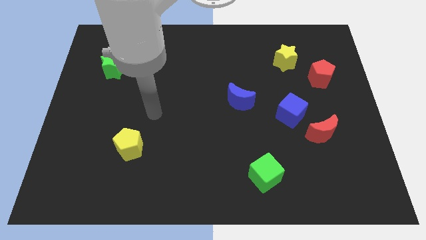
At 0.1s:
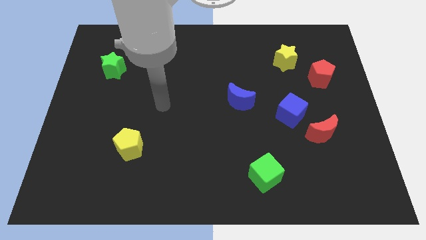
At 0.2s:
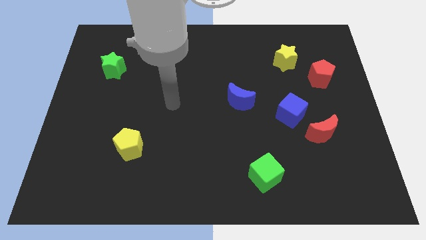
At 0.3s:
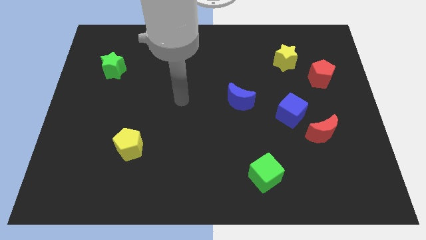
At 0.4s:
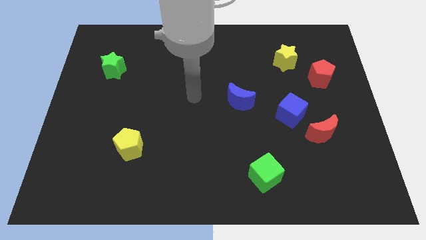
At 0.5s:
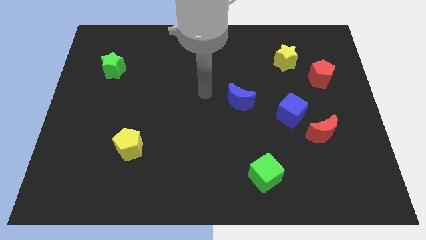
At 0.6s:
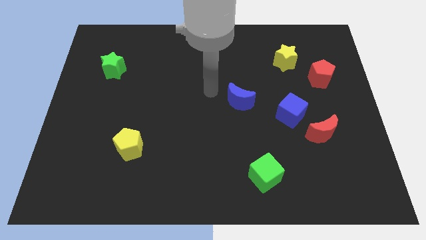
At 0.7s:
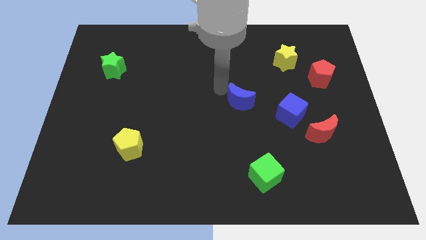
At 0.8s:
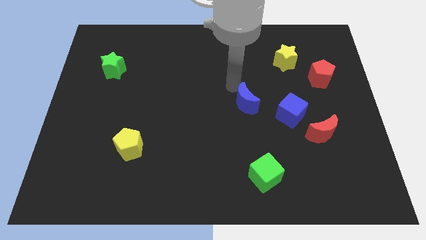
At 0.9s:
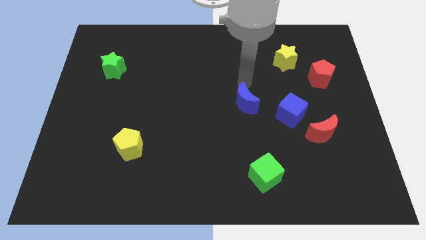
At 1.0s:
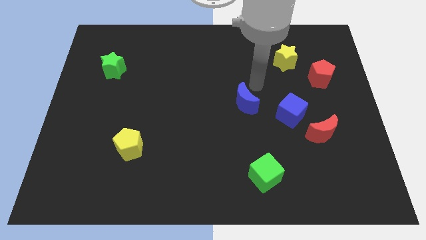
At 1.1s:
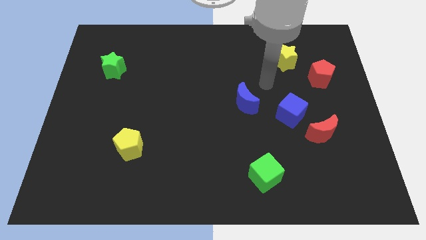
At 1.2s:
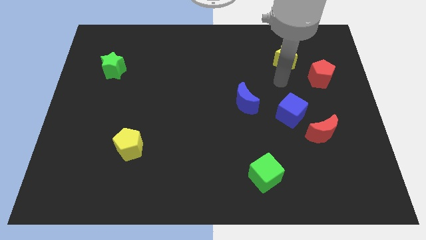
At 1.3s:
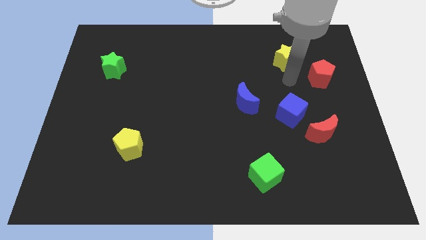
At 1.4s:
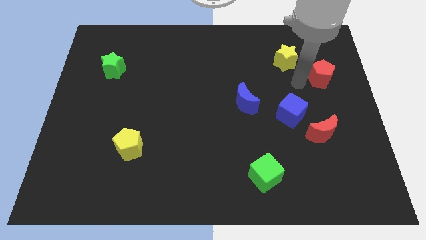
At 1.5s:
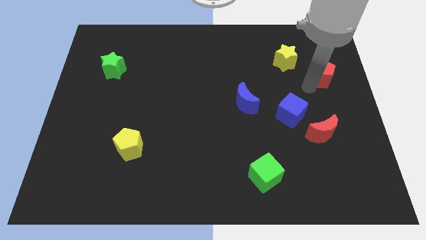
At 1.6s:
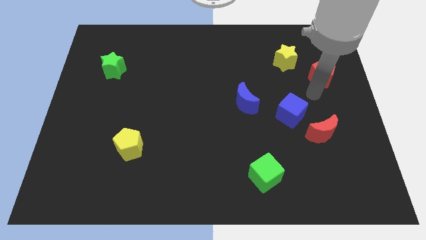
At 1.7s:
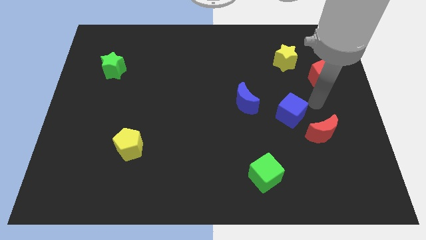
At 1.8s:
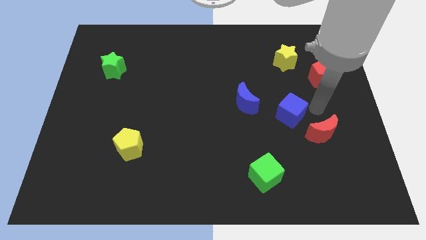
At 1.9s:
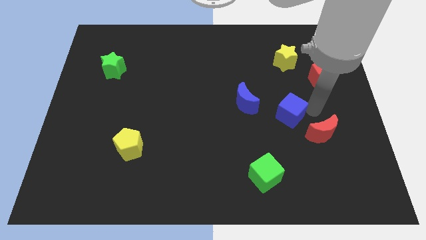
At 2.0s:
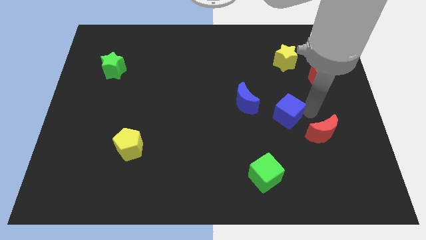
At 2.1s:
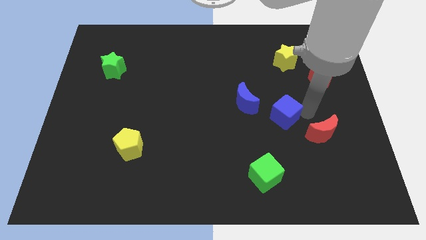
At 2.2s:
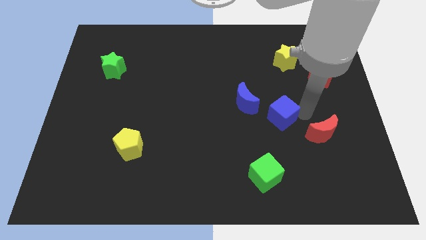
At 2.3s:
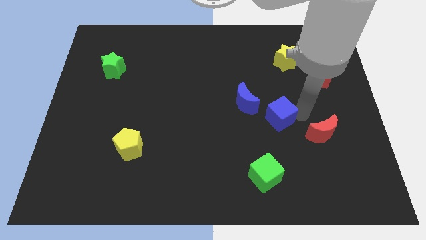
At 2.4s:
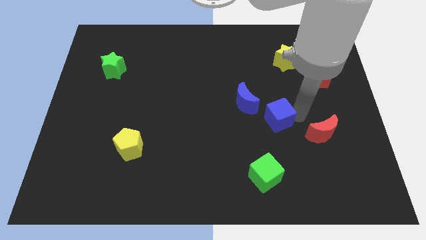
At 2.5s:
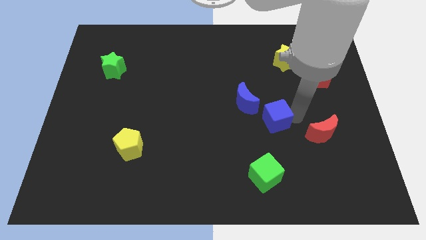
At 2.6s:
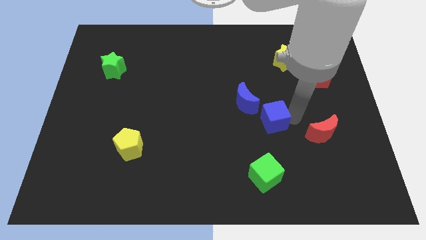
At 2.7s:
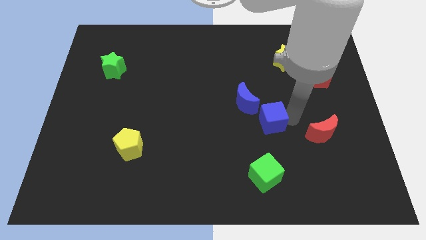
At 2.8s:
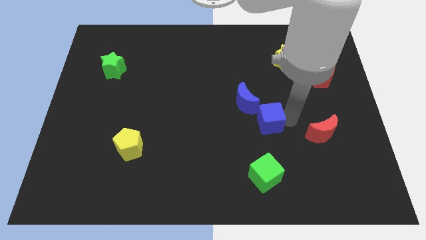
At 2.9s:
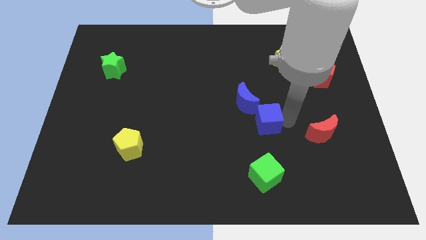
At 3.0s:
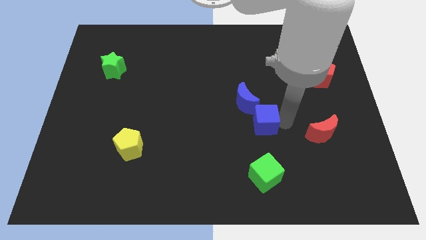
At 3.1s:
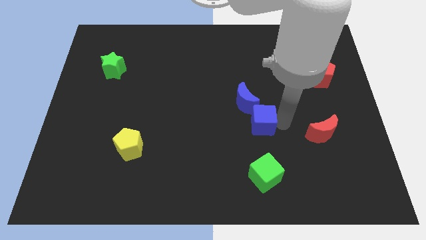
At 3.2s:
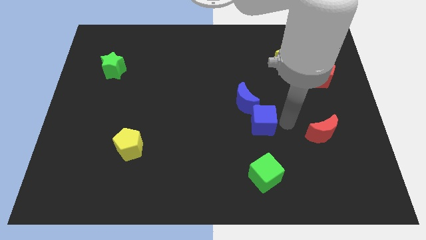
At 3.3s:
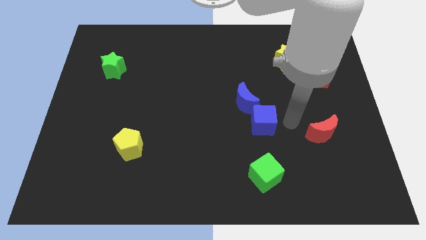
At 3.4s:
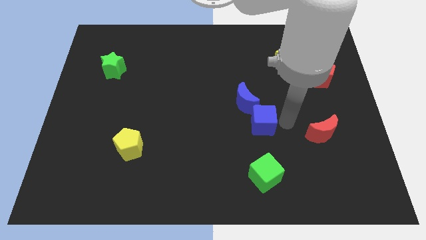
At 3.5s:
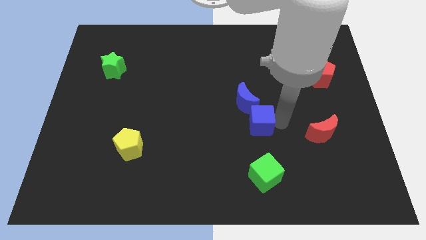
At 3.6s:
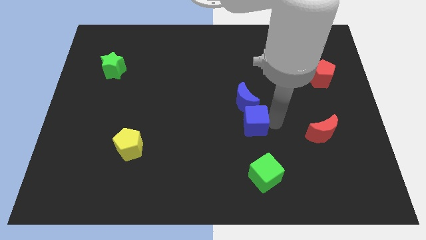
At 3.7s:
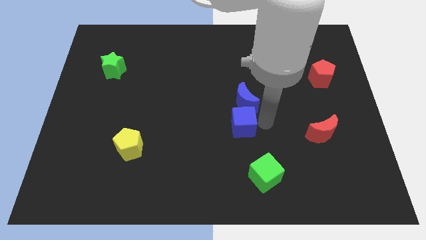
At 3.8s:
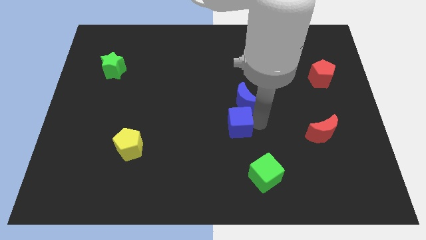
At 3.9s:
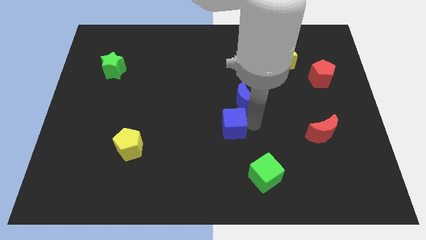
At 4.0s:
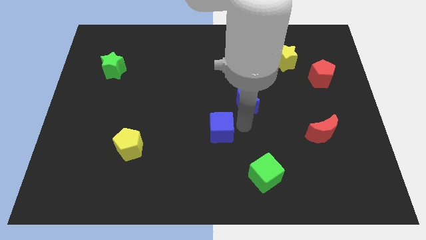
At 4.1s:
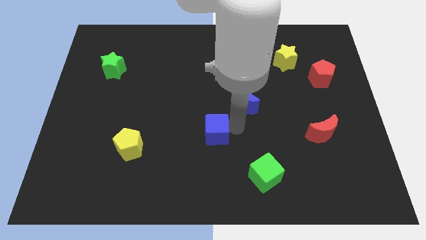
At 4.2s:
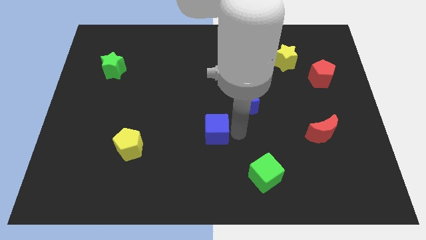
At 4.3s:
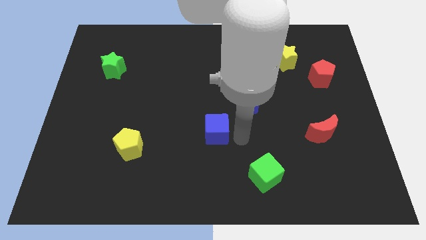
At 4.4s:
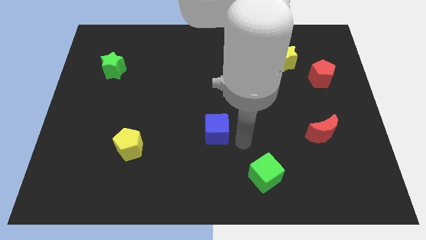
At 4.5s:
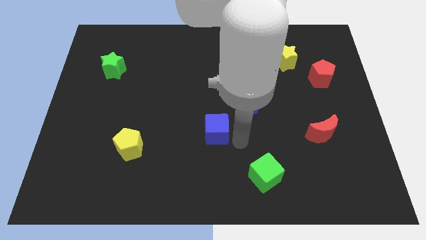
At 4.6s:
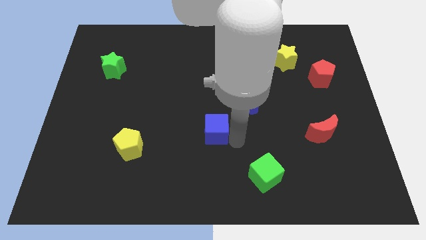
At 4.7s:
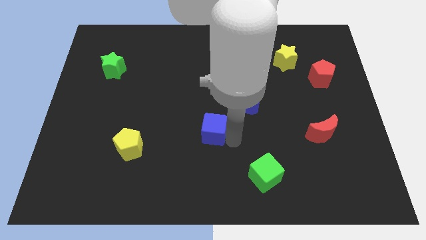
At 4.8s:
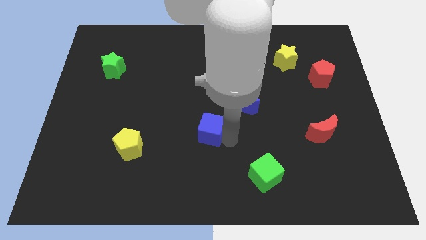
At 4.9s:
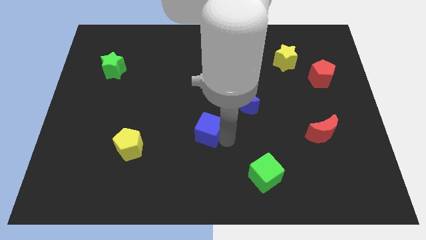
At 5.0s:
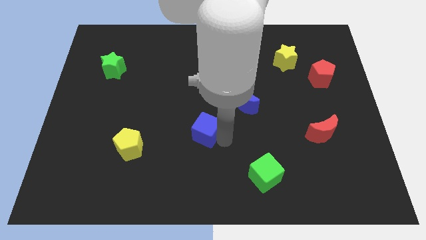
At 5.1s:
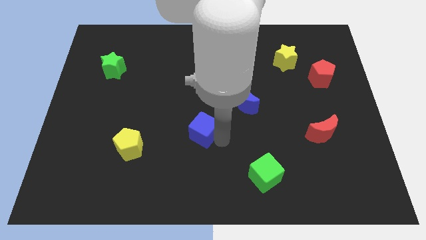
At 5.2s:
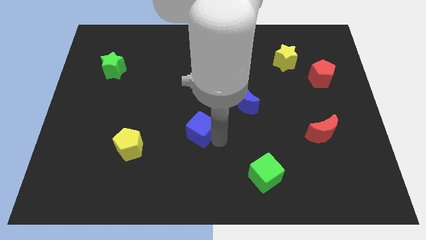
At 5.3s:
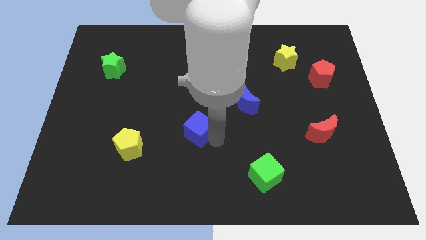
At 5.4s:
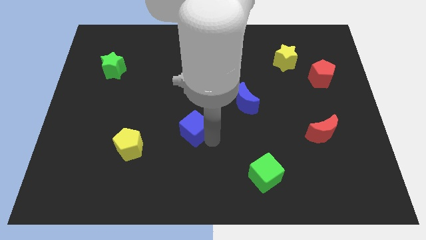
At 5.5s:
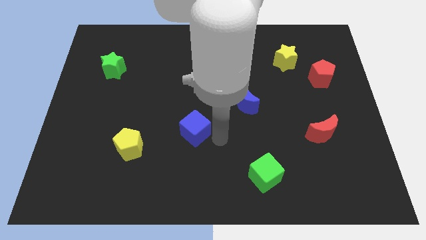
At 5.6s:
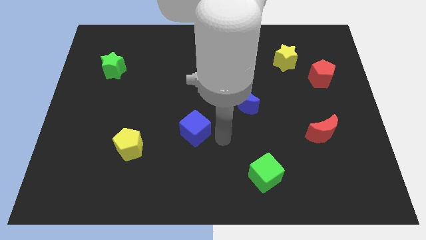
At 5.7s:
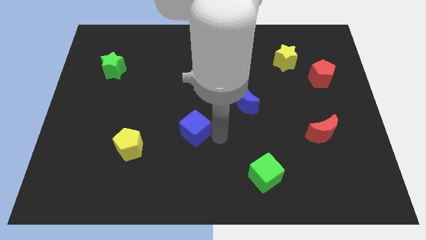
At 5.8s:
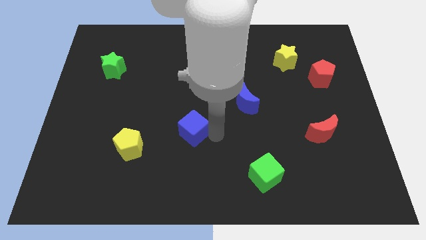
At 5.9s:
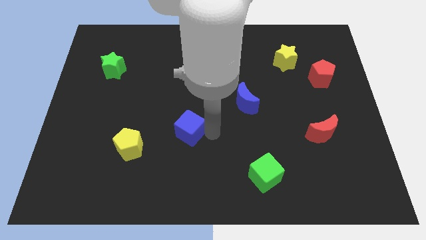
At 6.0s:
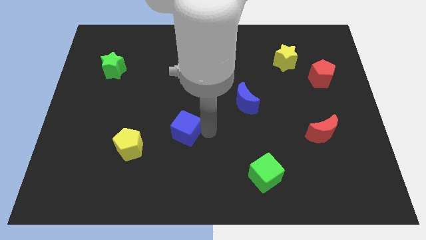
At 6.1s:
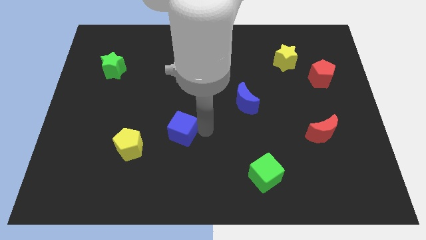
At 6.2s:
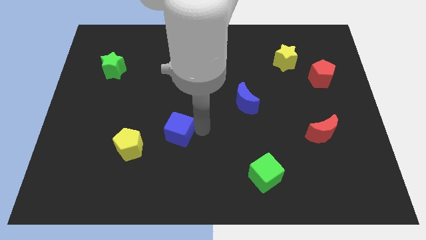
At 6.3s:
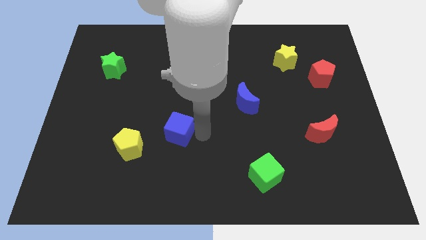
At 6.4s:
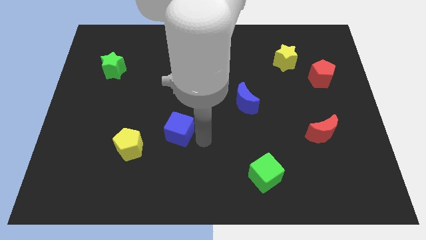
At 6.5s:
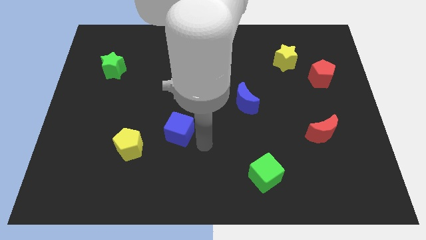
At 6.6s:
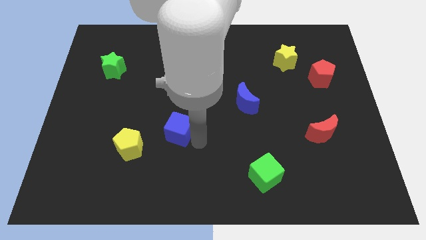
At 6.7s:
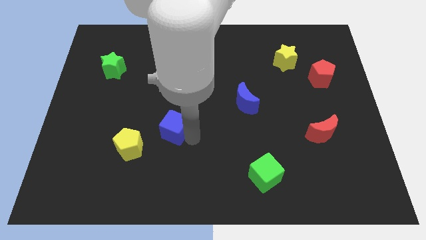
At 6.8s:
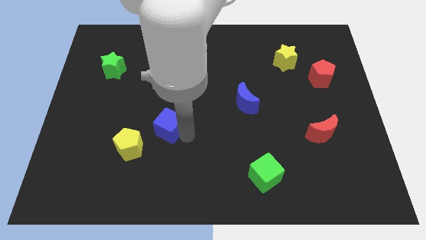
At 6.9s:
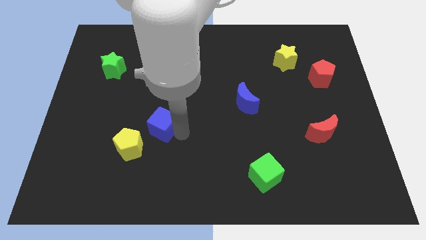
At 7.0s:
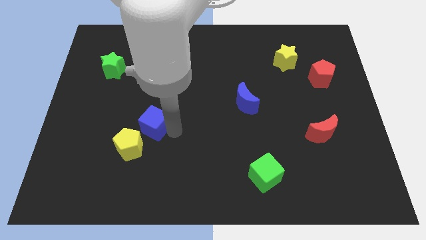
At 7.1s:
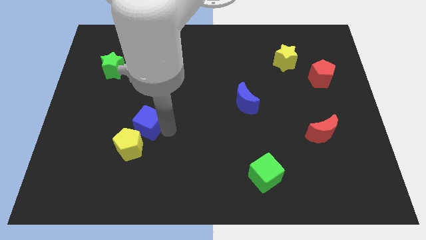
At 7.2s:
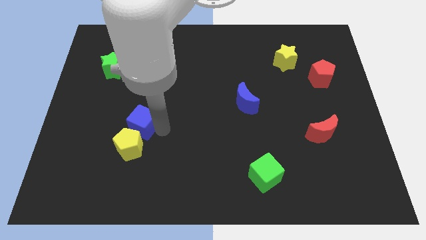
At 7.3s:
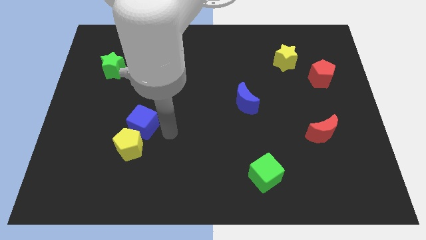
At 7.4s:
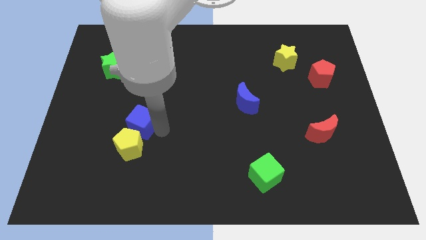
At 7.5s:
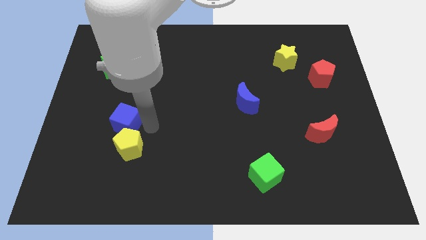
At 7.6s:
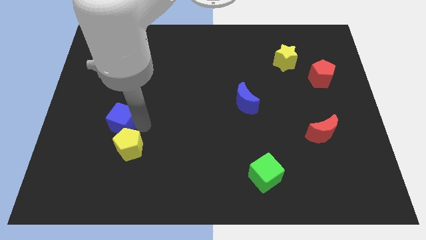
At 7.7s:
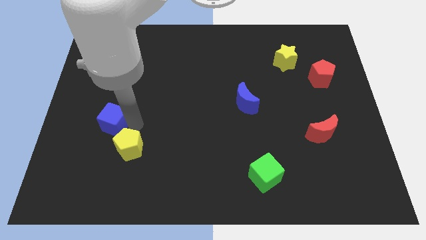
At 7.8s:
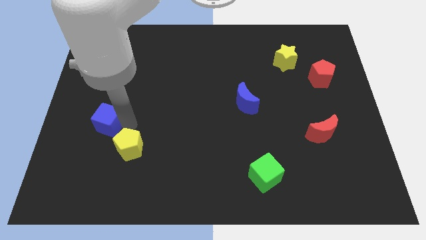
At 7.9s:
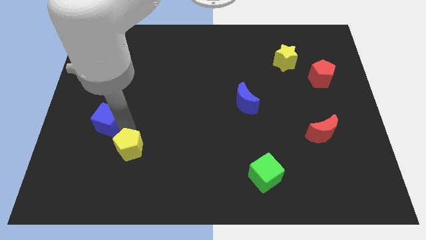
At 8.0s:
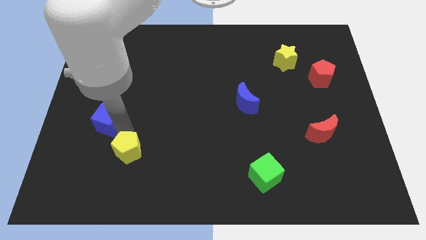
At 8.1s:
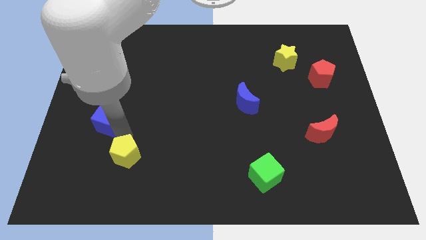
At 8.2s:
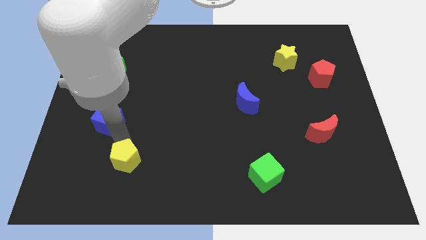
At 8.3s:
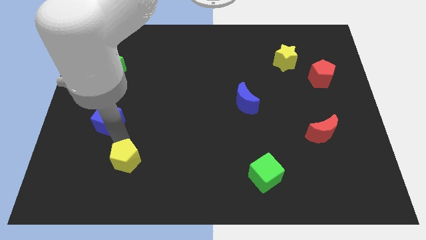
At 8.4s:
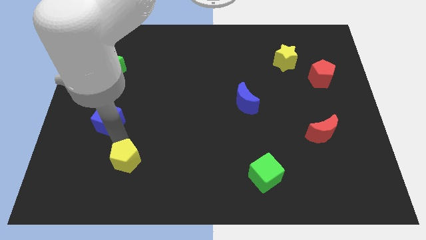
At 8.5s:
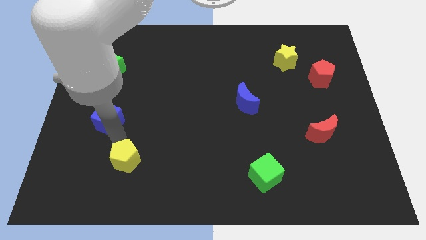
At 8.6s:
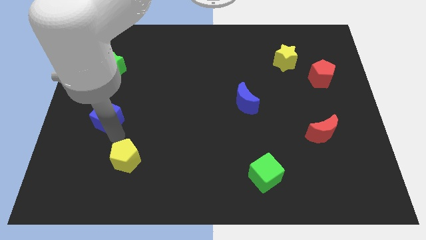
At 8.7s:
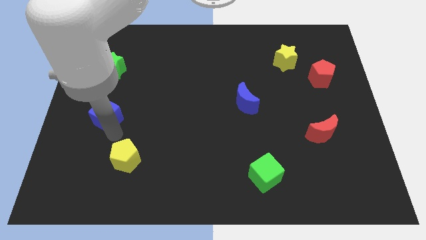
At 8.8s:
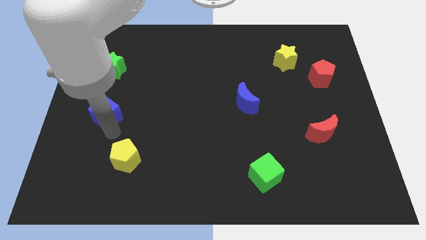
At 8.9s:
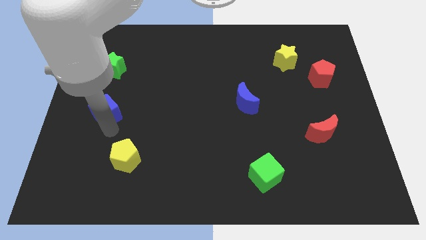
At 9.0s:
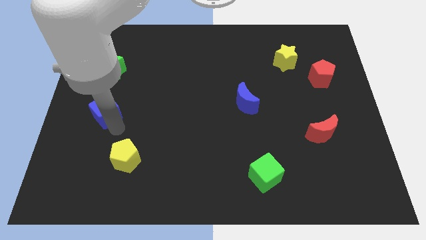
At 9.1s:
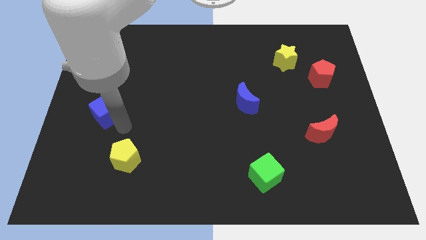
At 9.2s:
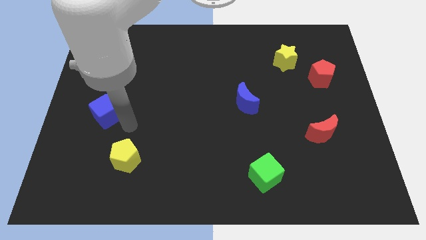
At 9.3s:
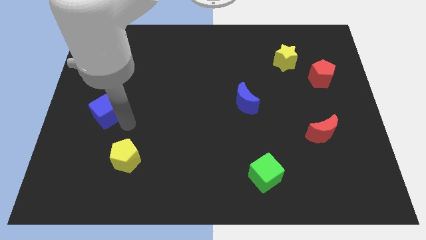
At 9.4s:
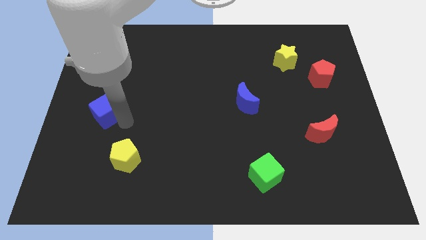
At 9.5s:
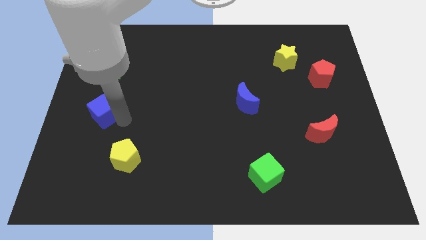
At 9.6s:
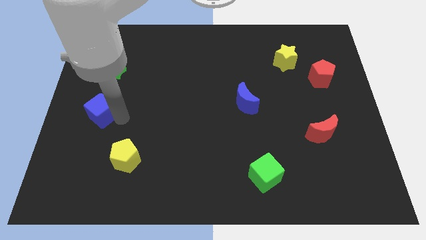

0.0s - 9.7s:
put the blue cube to the center left
